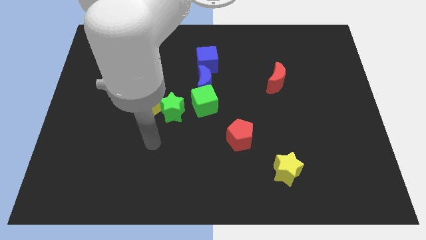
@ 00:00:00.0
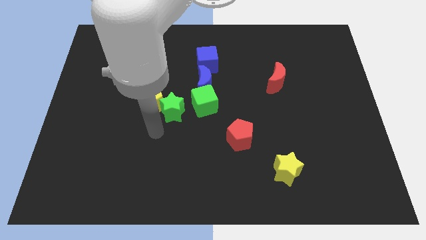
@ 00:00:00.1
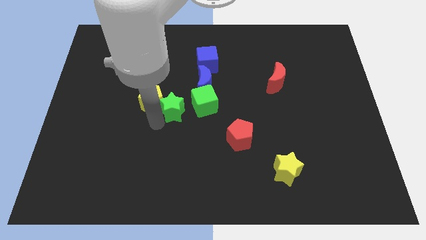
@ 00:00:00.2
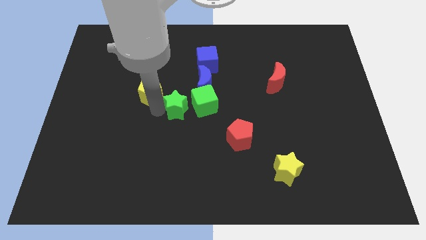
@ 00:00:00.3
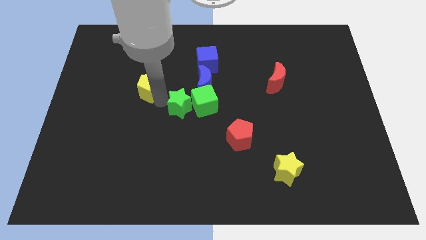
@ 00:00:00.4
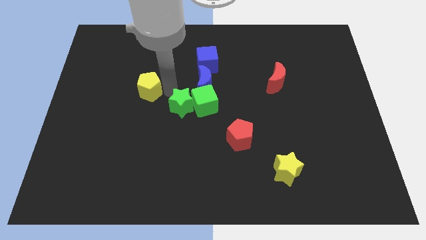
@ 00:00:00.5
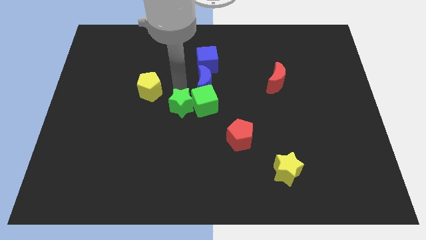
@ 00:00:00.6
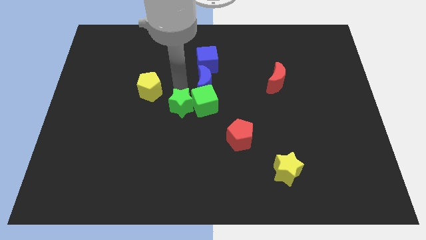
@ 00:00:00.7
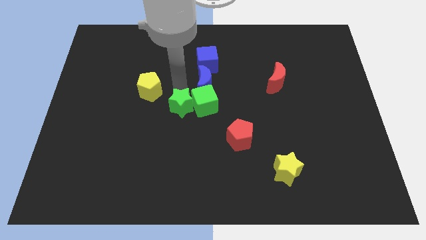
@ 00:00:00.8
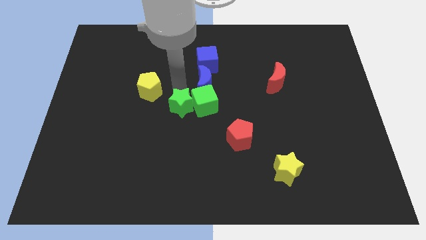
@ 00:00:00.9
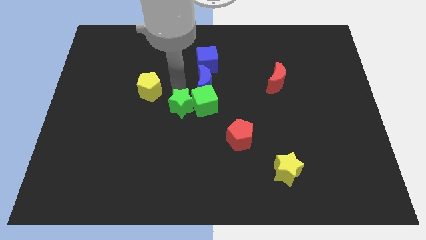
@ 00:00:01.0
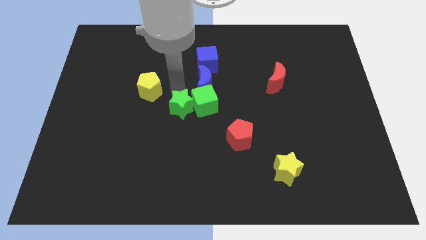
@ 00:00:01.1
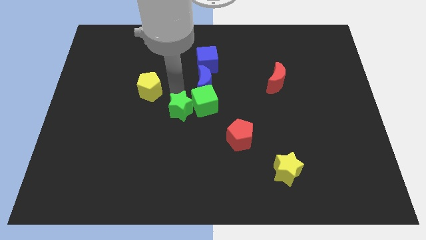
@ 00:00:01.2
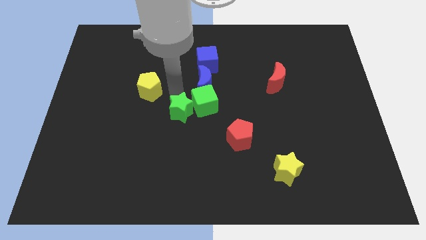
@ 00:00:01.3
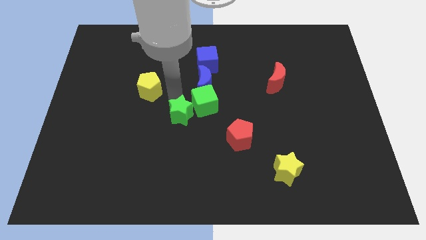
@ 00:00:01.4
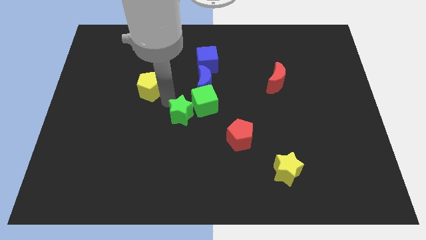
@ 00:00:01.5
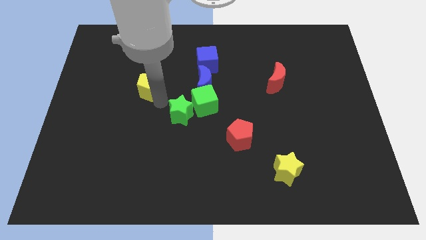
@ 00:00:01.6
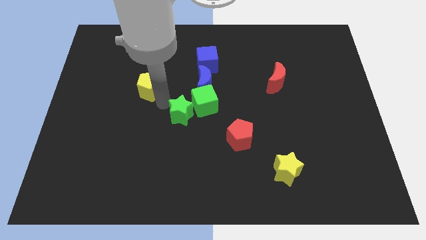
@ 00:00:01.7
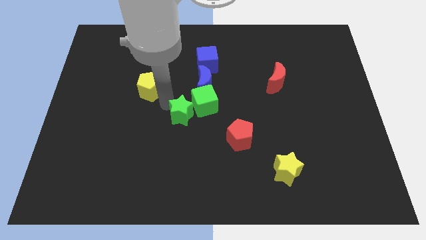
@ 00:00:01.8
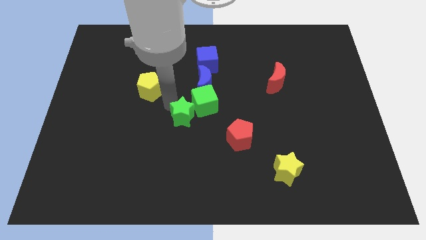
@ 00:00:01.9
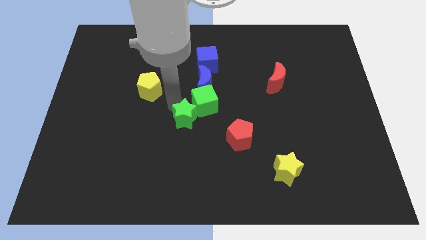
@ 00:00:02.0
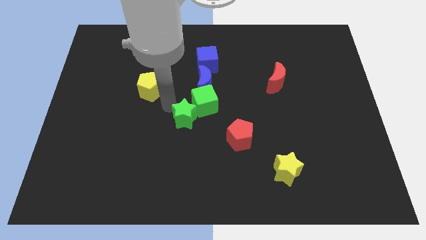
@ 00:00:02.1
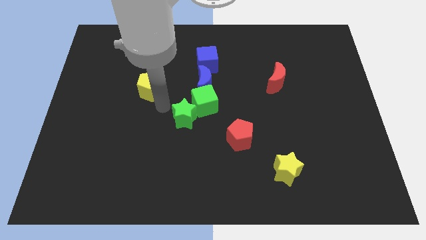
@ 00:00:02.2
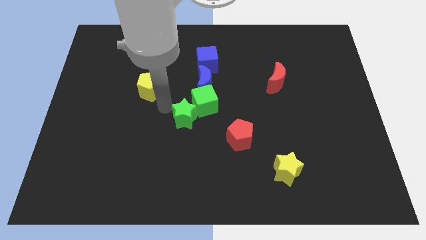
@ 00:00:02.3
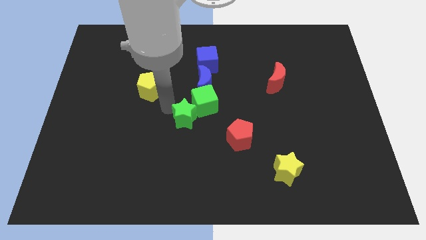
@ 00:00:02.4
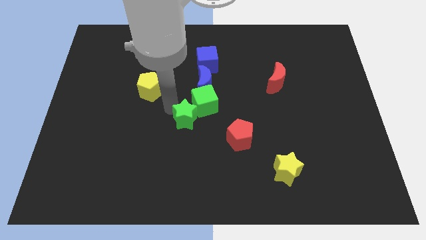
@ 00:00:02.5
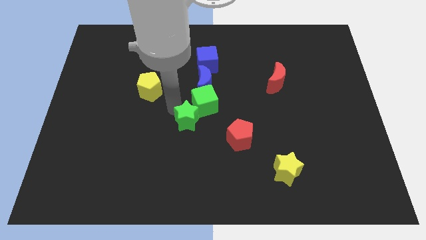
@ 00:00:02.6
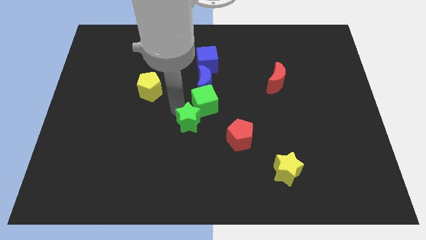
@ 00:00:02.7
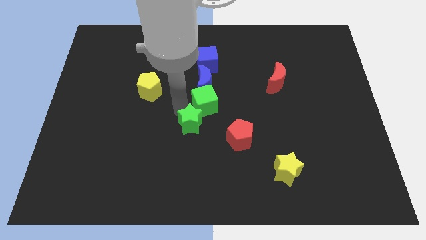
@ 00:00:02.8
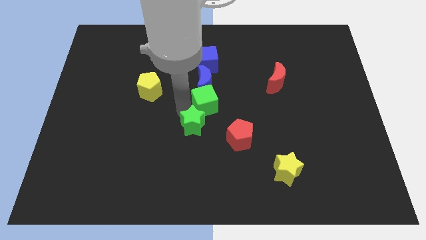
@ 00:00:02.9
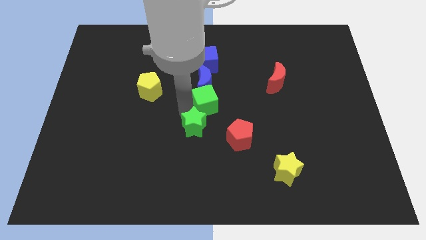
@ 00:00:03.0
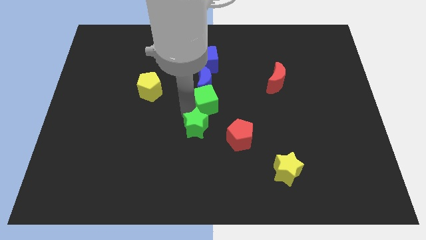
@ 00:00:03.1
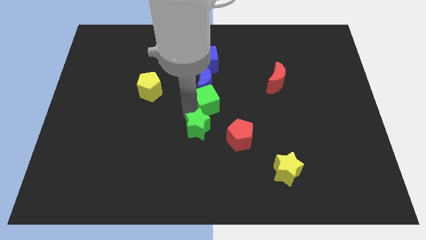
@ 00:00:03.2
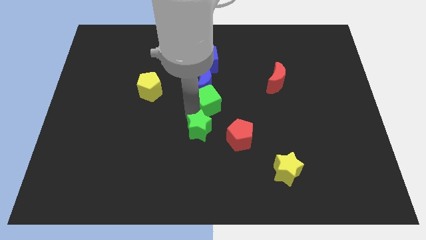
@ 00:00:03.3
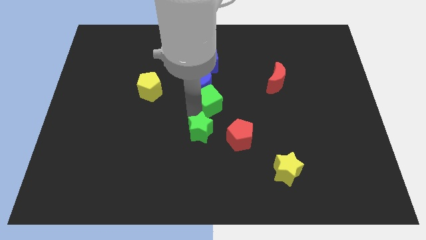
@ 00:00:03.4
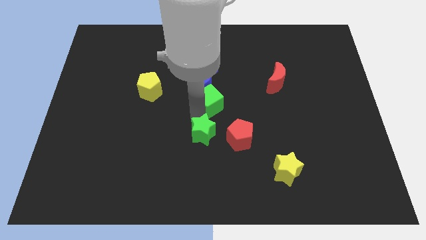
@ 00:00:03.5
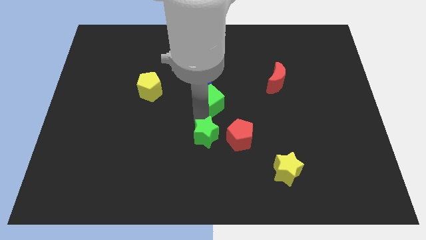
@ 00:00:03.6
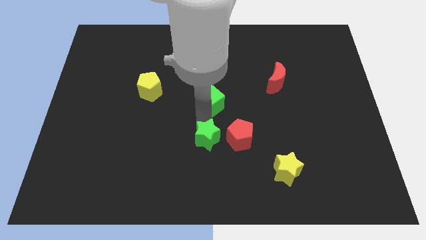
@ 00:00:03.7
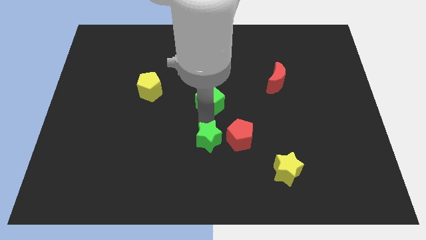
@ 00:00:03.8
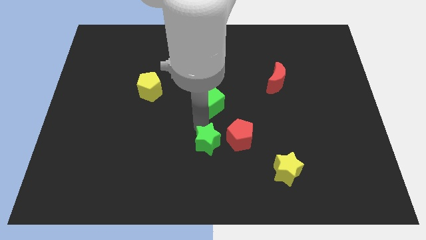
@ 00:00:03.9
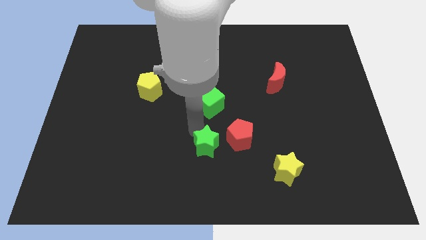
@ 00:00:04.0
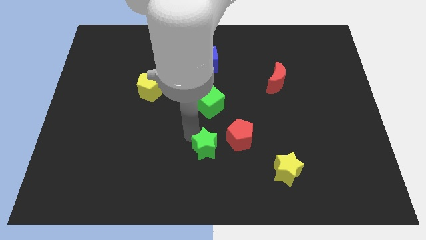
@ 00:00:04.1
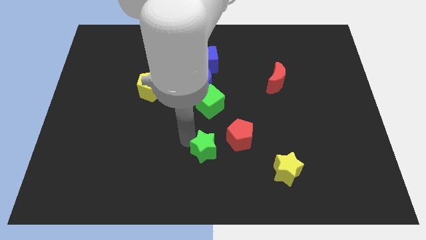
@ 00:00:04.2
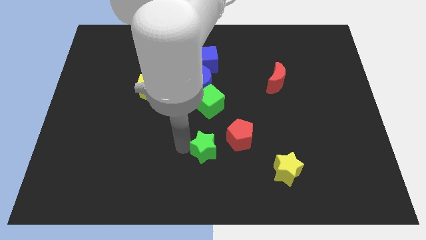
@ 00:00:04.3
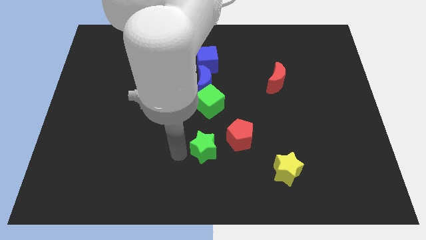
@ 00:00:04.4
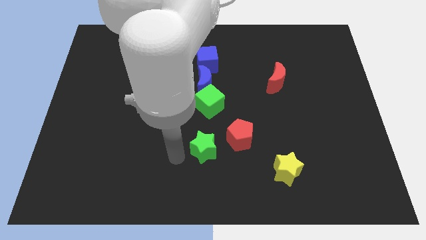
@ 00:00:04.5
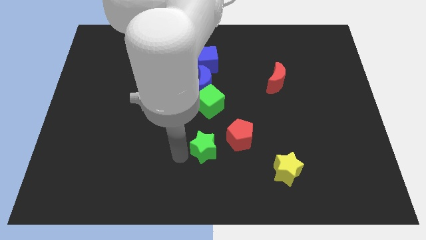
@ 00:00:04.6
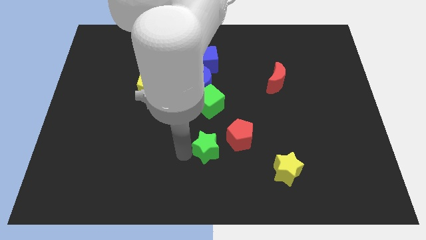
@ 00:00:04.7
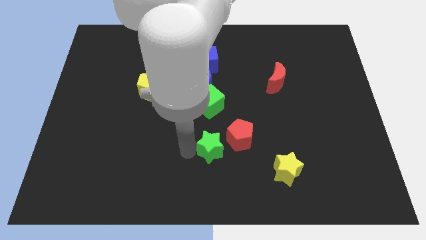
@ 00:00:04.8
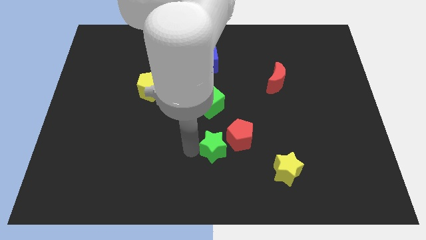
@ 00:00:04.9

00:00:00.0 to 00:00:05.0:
push the green star to the red pentagon

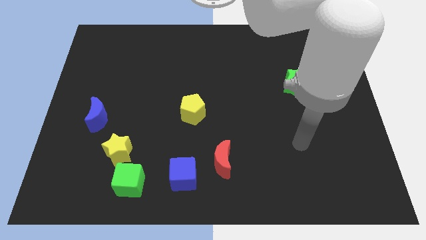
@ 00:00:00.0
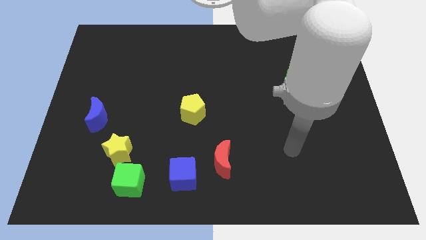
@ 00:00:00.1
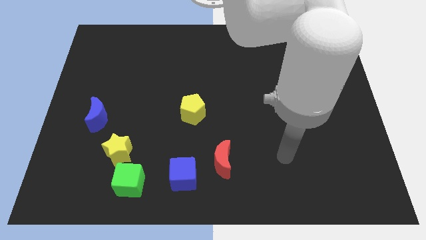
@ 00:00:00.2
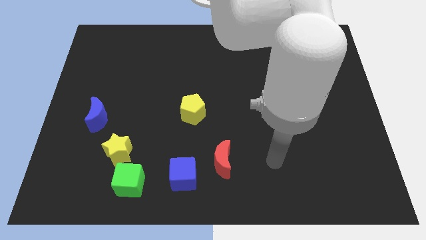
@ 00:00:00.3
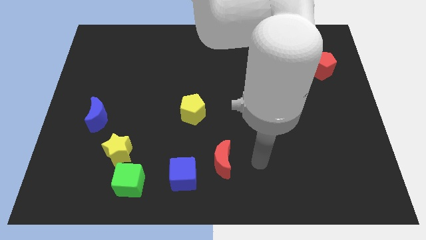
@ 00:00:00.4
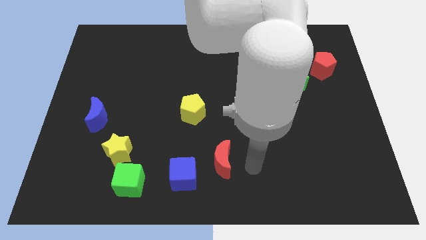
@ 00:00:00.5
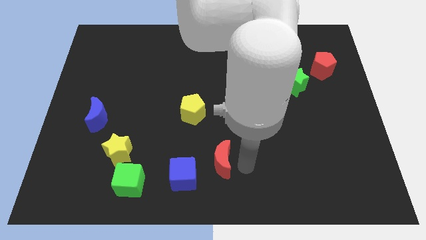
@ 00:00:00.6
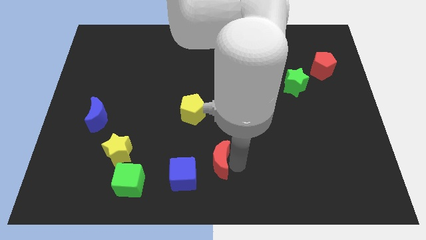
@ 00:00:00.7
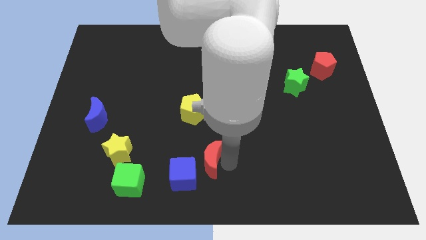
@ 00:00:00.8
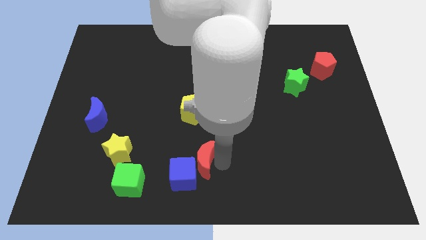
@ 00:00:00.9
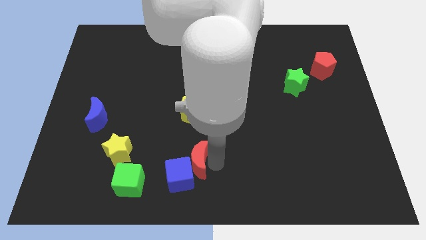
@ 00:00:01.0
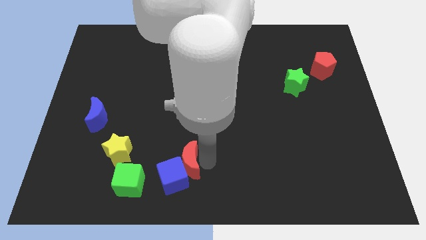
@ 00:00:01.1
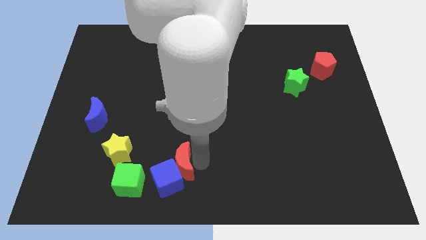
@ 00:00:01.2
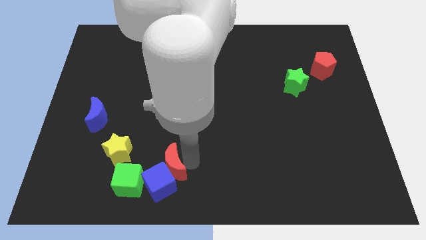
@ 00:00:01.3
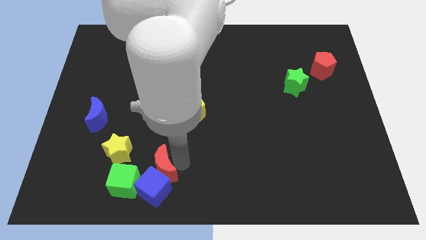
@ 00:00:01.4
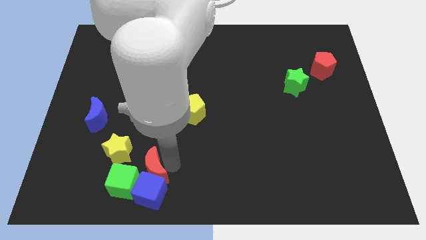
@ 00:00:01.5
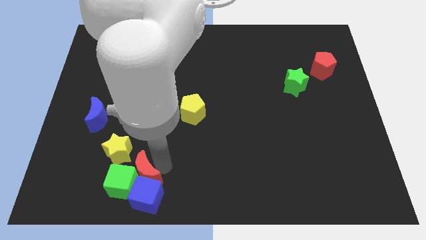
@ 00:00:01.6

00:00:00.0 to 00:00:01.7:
move the red moon towards the green cube

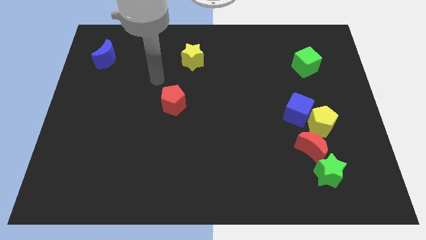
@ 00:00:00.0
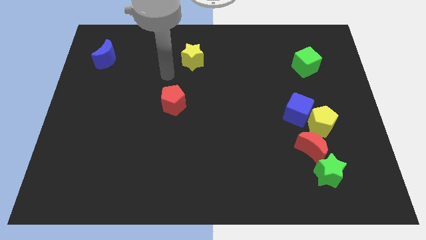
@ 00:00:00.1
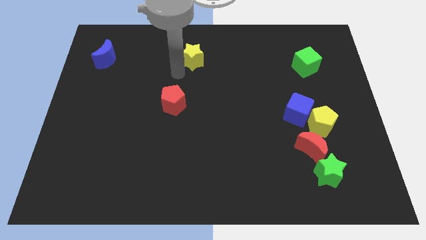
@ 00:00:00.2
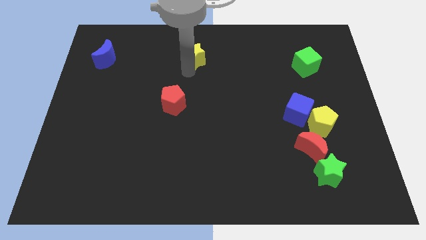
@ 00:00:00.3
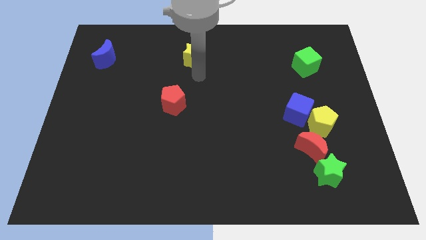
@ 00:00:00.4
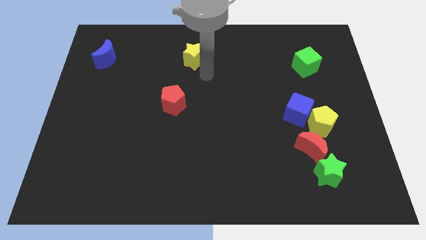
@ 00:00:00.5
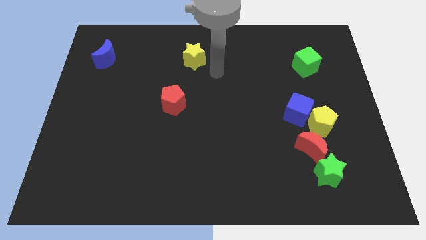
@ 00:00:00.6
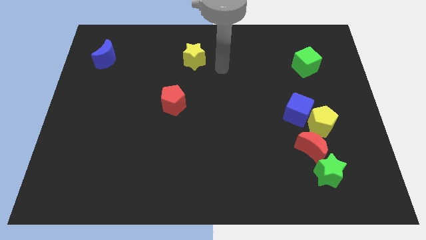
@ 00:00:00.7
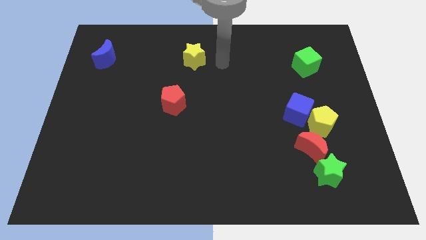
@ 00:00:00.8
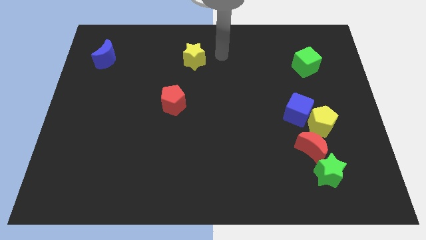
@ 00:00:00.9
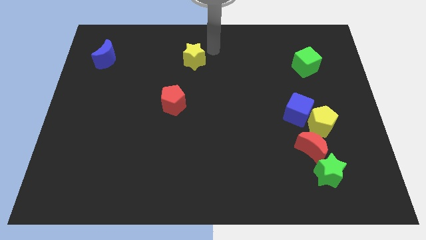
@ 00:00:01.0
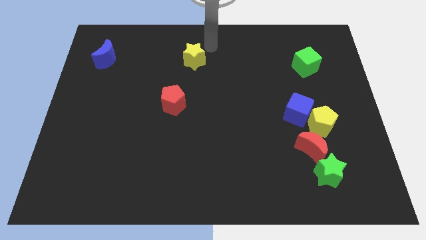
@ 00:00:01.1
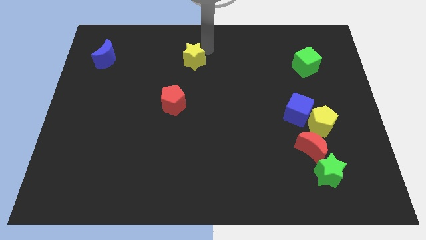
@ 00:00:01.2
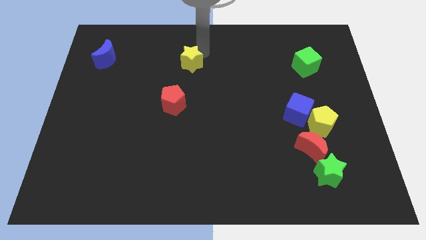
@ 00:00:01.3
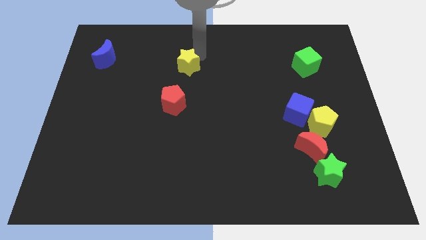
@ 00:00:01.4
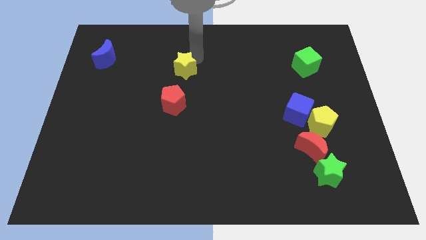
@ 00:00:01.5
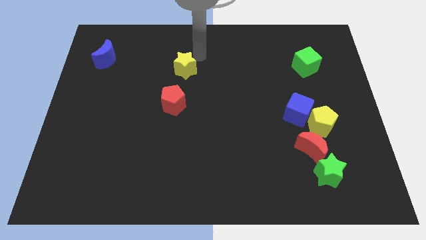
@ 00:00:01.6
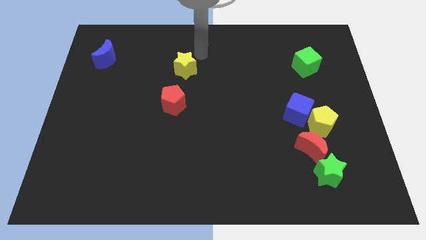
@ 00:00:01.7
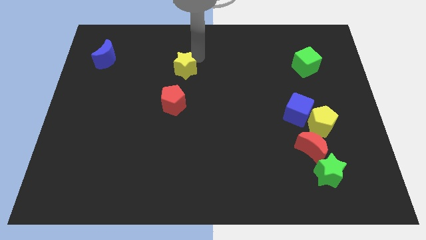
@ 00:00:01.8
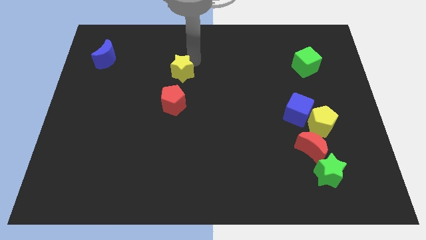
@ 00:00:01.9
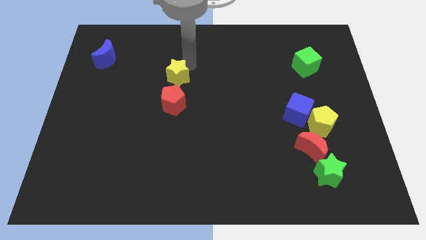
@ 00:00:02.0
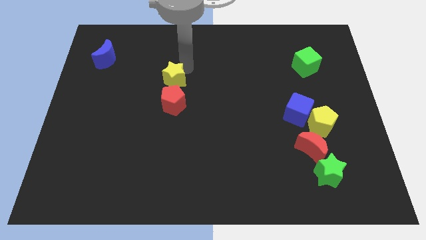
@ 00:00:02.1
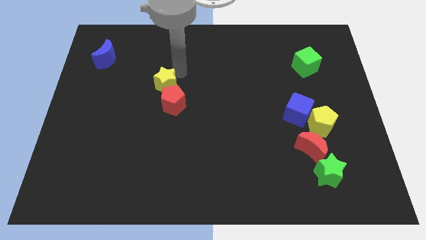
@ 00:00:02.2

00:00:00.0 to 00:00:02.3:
slide the yellow star to the red pentagon
